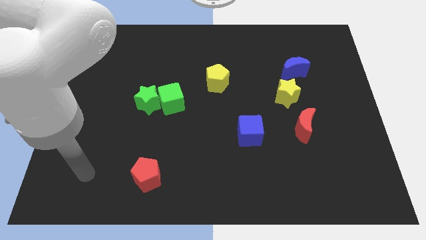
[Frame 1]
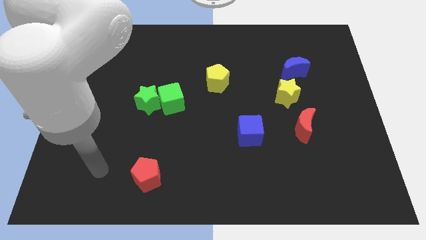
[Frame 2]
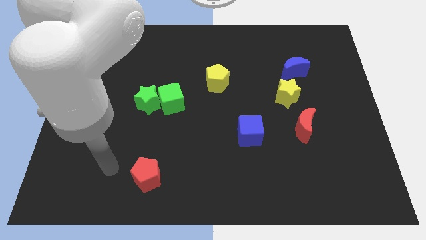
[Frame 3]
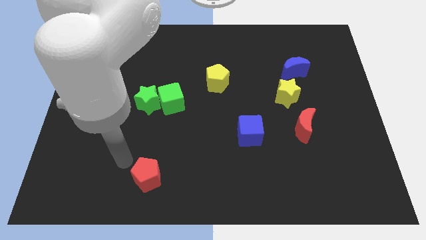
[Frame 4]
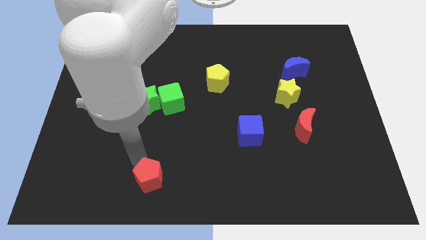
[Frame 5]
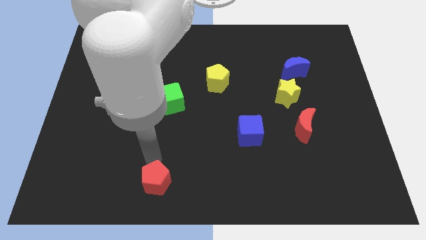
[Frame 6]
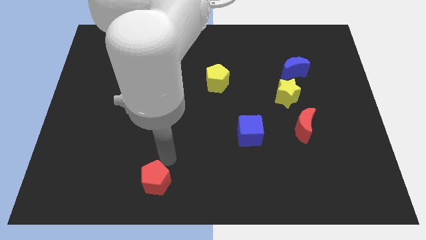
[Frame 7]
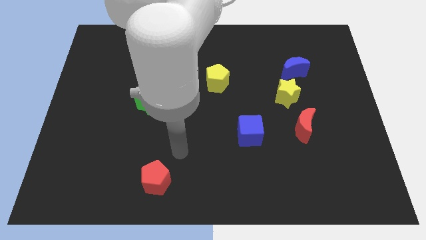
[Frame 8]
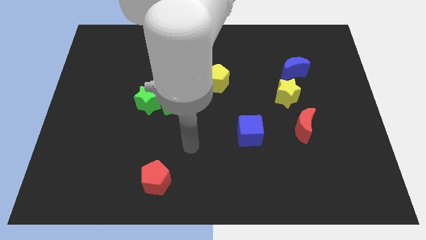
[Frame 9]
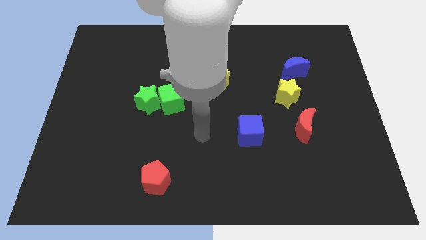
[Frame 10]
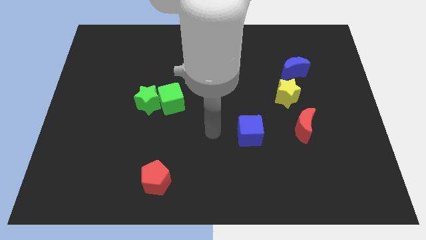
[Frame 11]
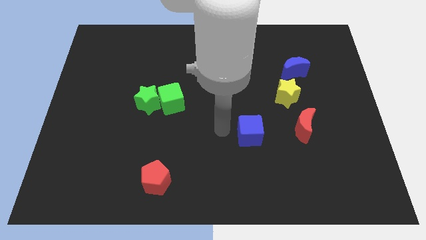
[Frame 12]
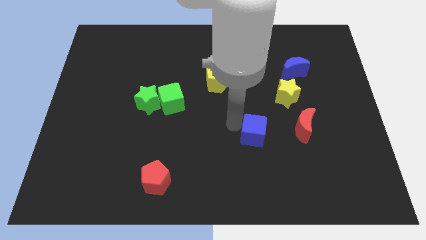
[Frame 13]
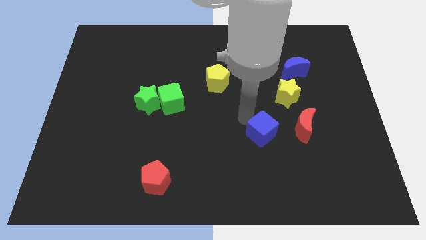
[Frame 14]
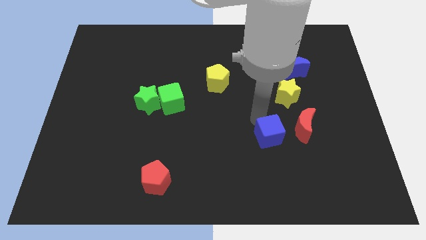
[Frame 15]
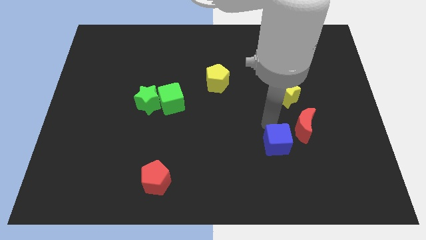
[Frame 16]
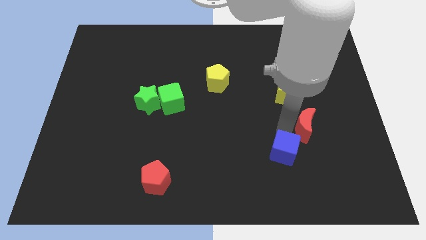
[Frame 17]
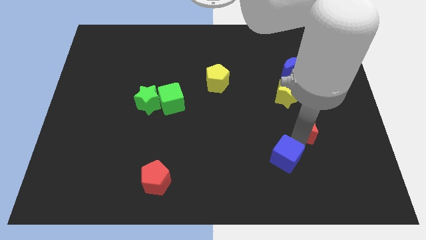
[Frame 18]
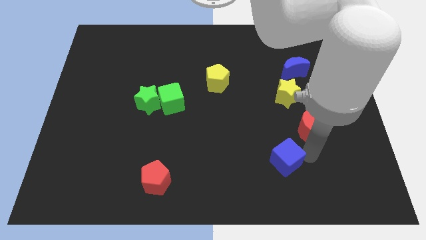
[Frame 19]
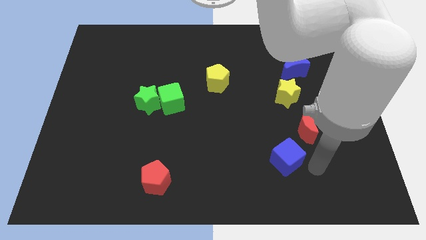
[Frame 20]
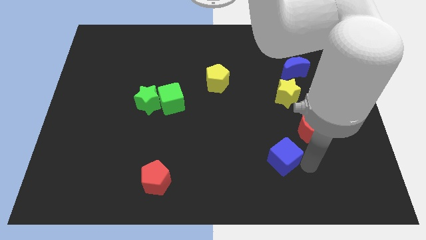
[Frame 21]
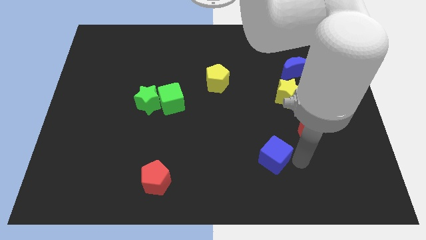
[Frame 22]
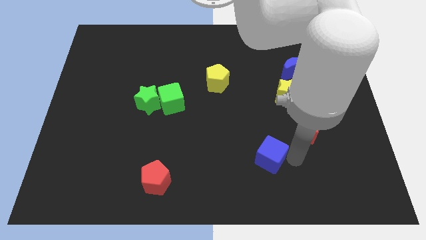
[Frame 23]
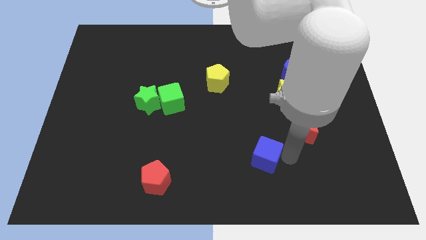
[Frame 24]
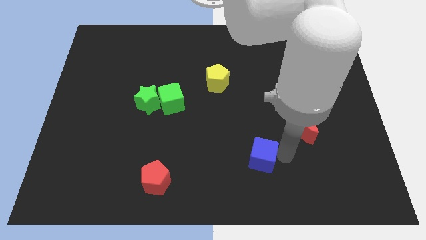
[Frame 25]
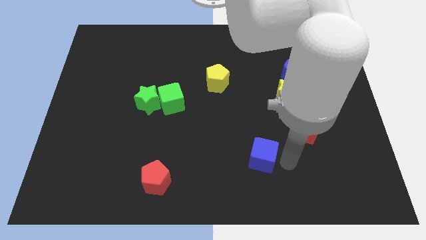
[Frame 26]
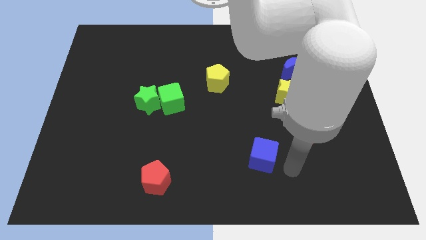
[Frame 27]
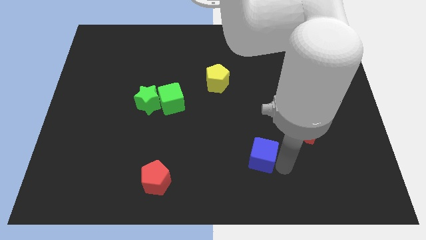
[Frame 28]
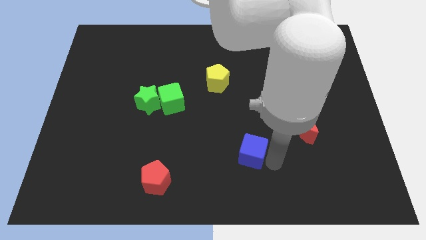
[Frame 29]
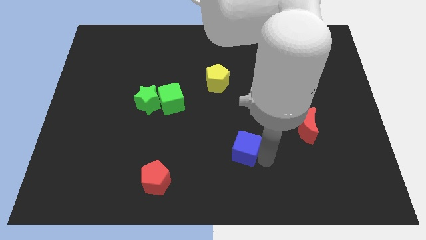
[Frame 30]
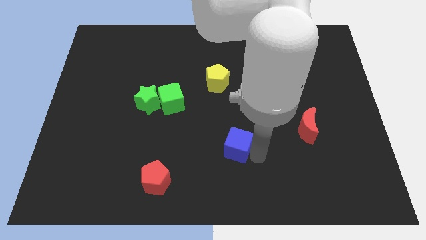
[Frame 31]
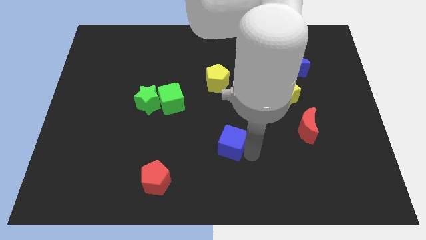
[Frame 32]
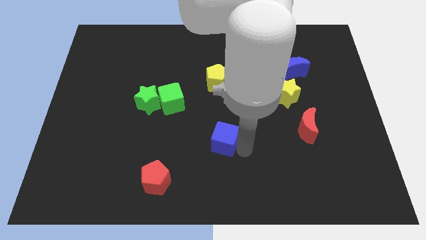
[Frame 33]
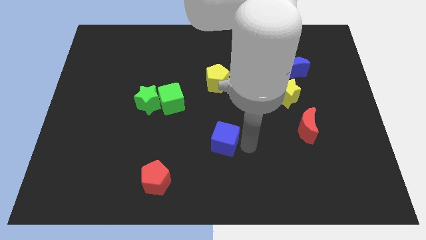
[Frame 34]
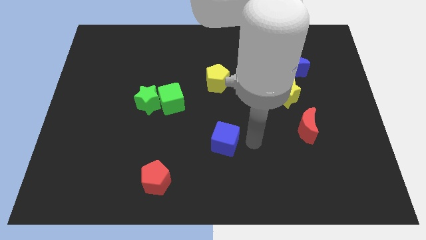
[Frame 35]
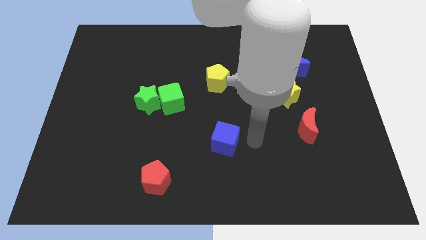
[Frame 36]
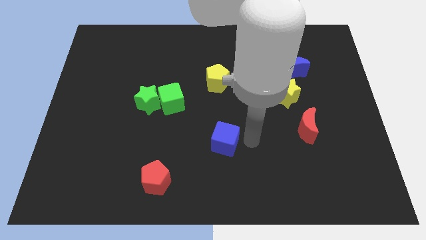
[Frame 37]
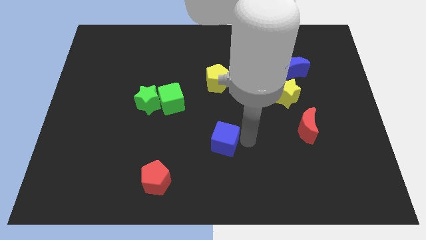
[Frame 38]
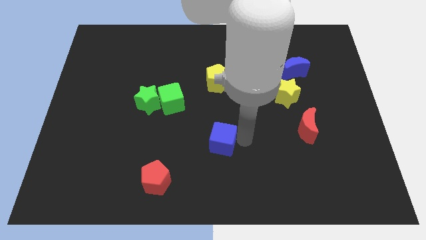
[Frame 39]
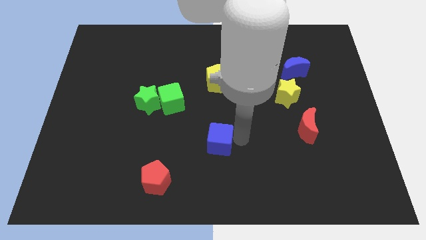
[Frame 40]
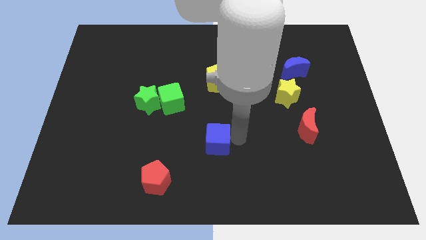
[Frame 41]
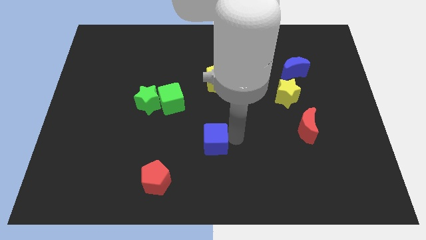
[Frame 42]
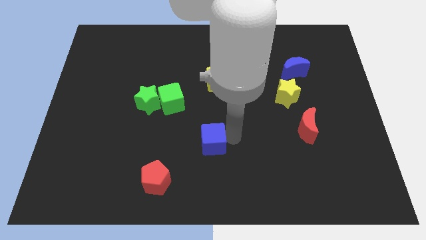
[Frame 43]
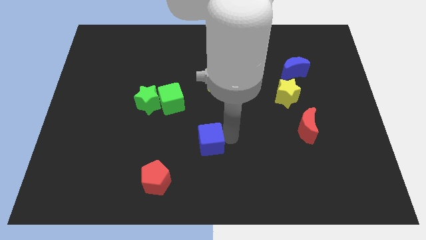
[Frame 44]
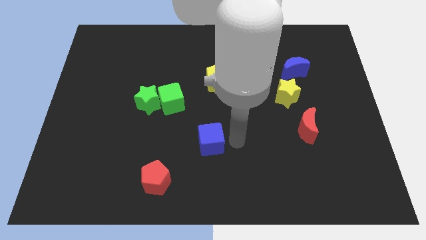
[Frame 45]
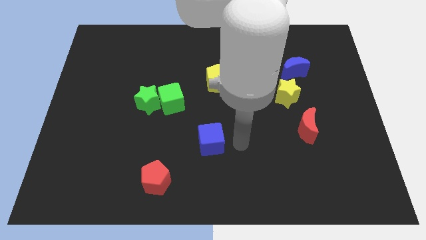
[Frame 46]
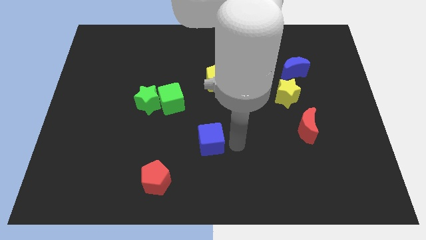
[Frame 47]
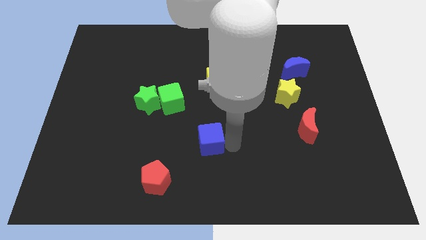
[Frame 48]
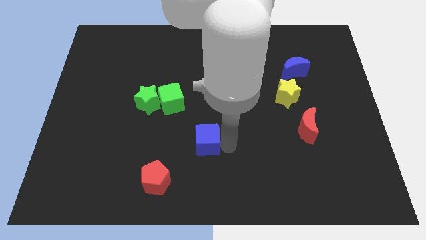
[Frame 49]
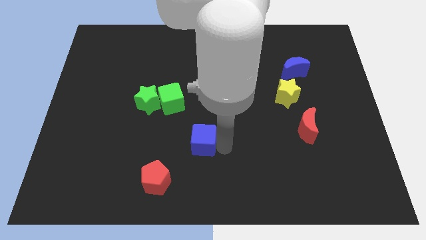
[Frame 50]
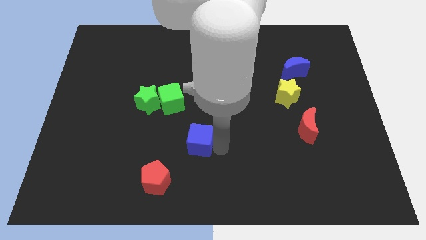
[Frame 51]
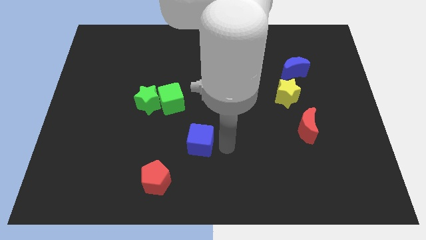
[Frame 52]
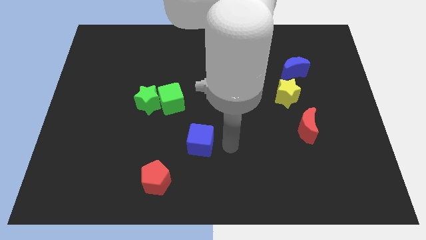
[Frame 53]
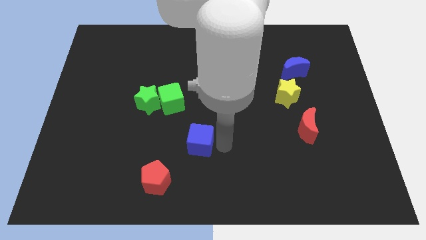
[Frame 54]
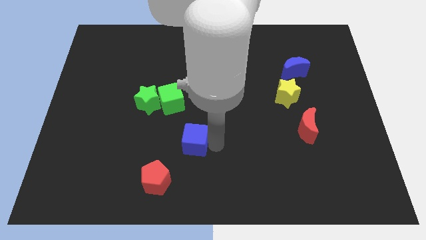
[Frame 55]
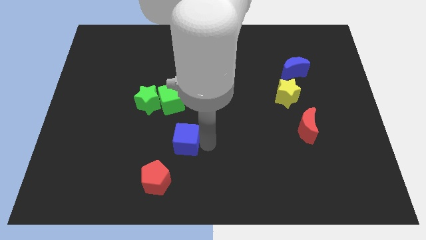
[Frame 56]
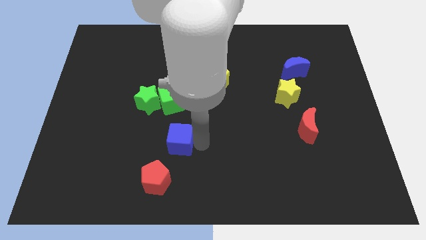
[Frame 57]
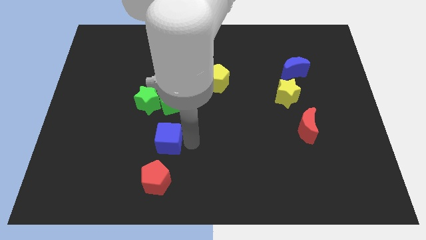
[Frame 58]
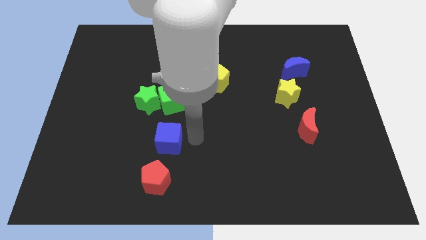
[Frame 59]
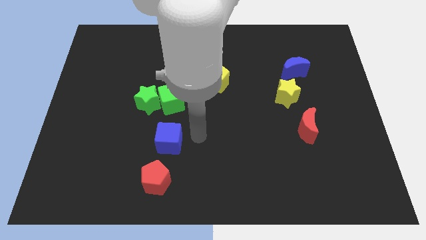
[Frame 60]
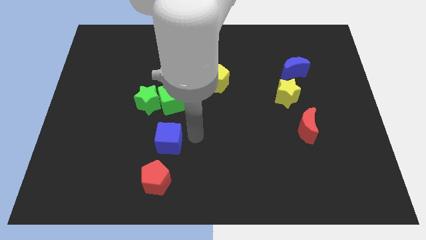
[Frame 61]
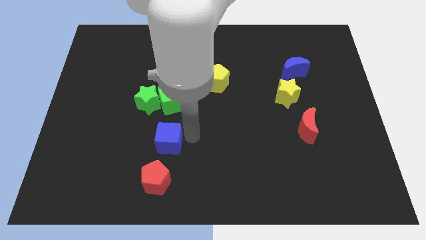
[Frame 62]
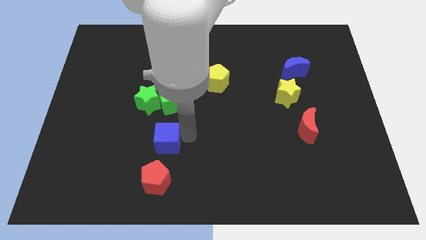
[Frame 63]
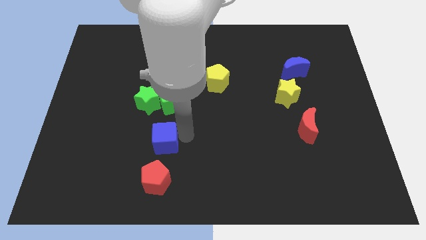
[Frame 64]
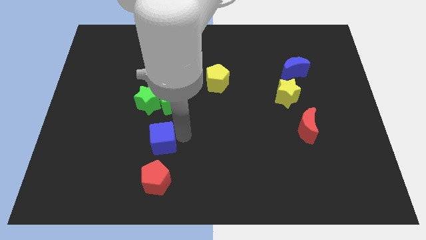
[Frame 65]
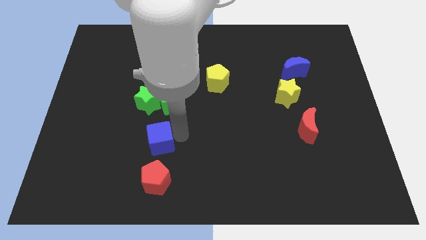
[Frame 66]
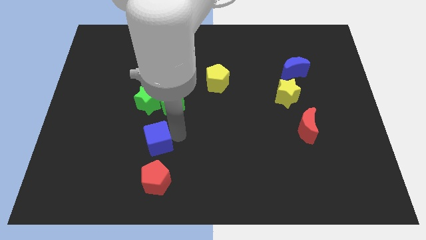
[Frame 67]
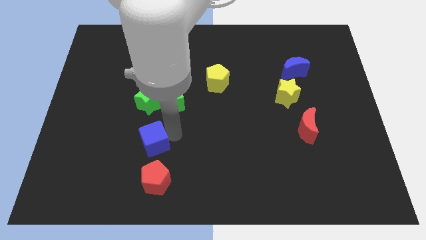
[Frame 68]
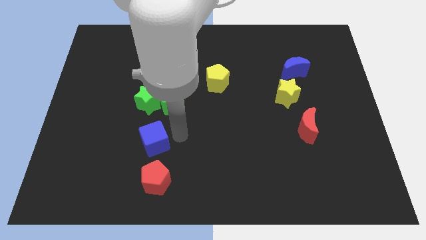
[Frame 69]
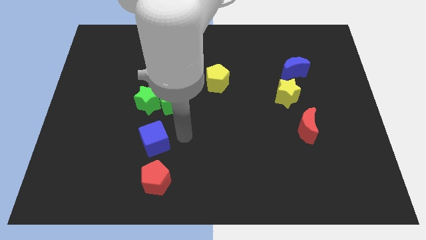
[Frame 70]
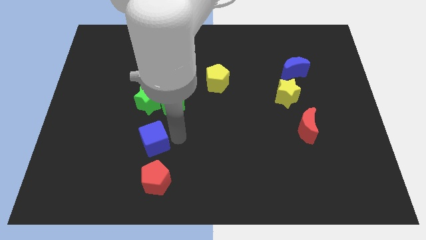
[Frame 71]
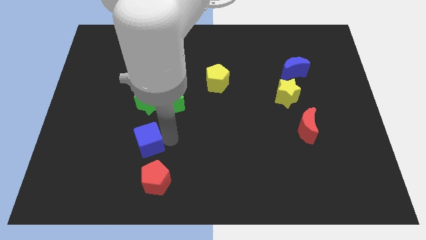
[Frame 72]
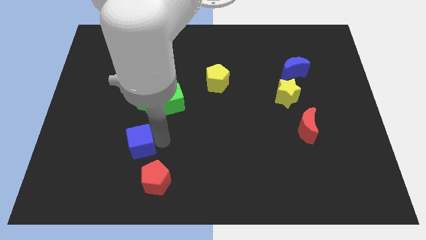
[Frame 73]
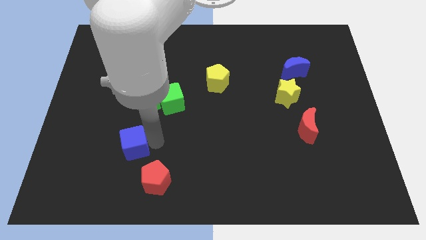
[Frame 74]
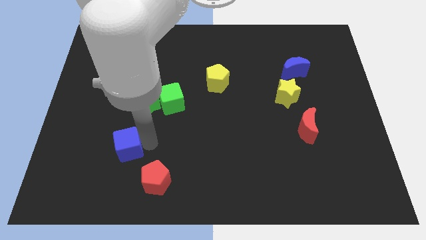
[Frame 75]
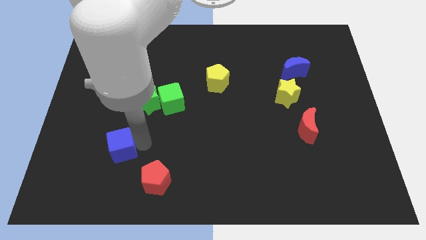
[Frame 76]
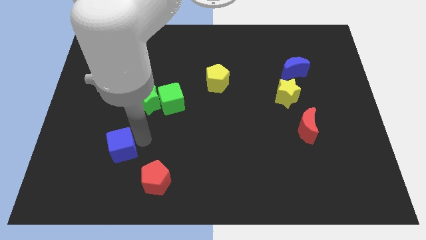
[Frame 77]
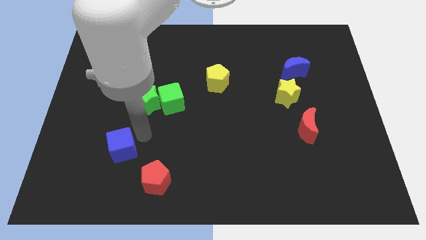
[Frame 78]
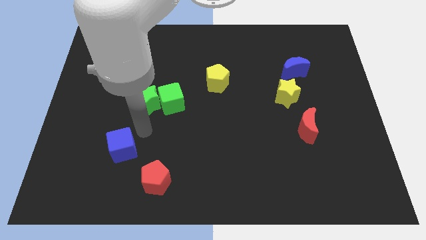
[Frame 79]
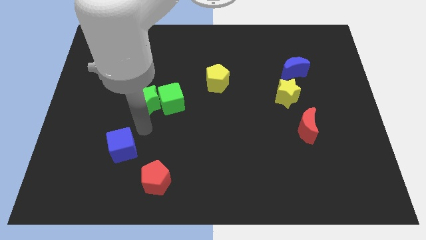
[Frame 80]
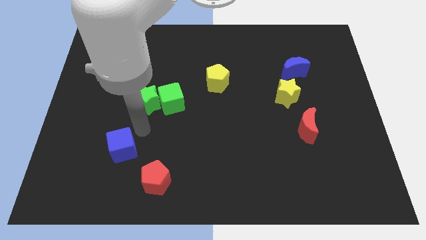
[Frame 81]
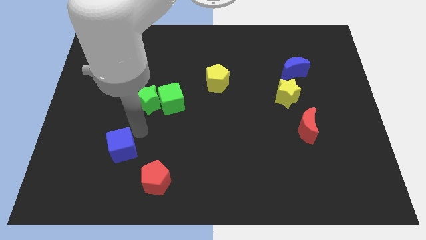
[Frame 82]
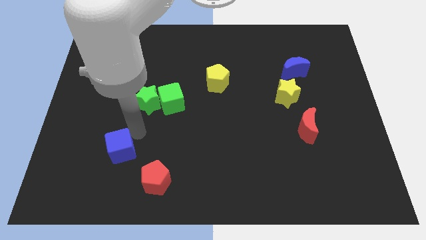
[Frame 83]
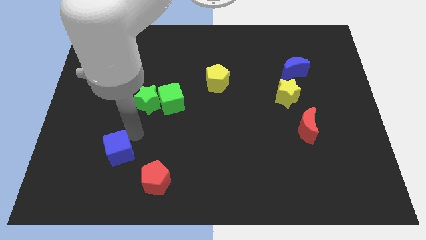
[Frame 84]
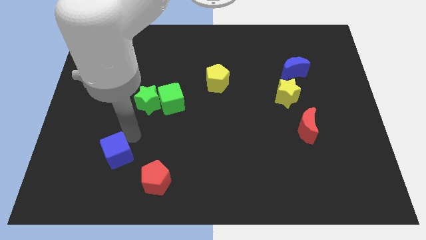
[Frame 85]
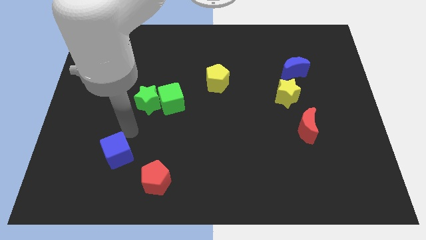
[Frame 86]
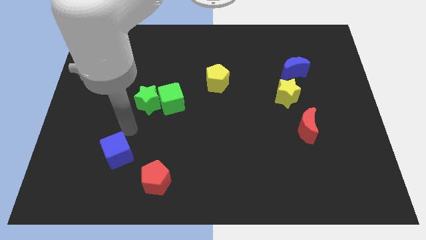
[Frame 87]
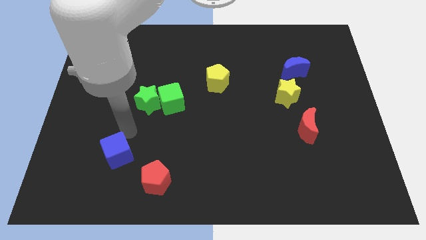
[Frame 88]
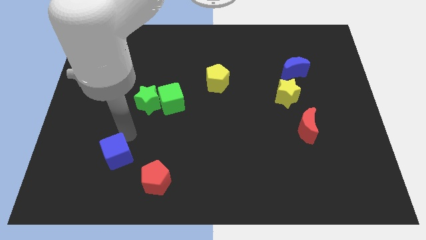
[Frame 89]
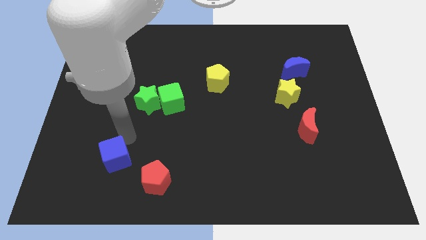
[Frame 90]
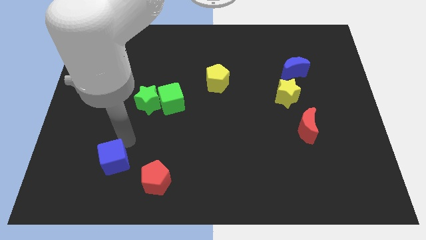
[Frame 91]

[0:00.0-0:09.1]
move the blue cube to the left of the red pentagon
